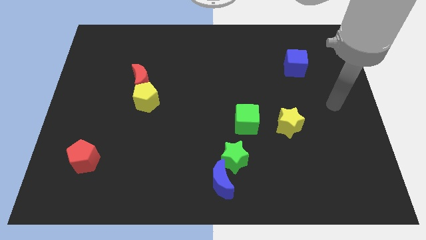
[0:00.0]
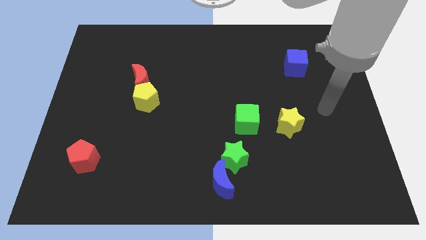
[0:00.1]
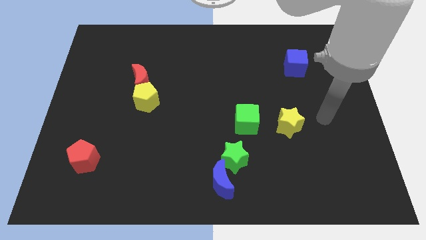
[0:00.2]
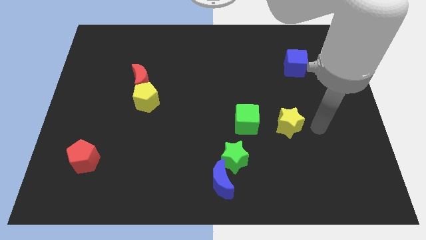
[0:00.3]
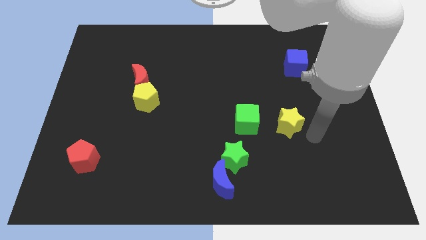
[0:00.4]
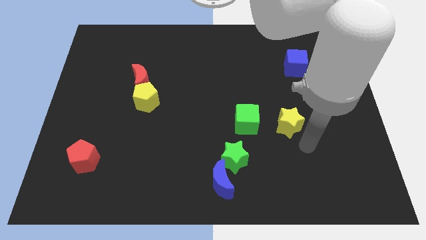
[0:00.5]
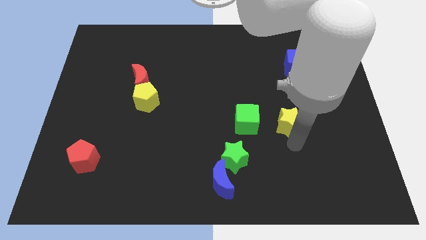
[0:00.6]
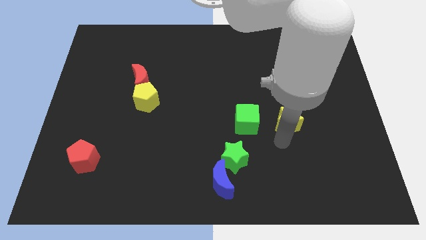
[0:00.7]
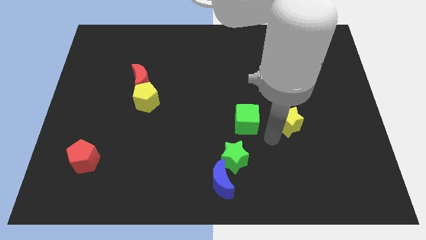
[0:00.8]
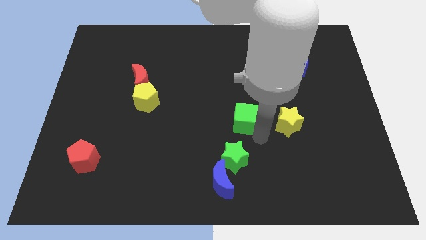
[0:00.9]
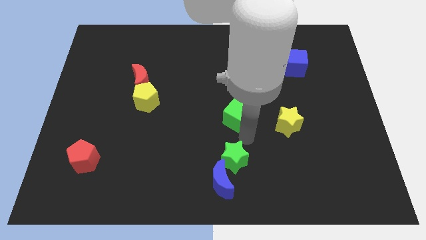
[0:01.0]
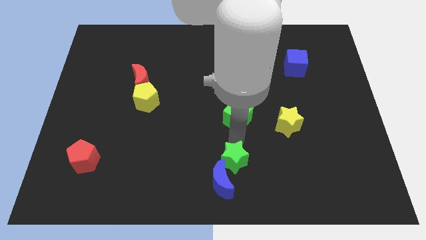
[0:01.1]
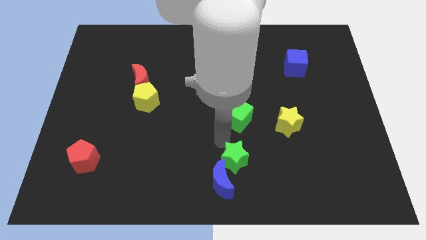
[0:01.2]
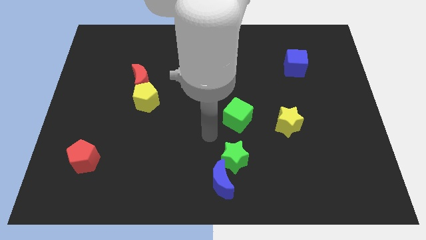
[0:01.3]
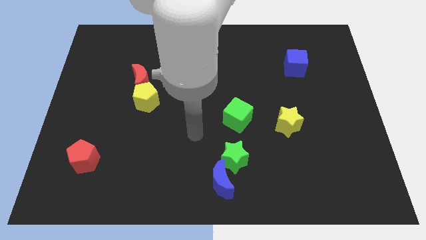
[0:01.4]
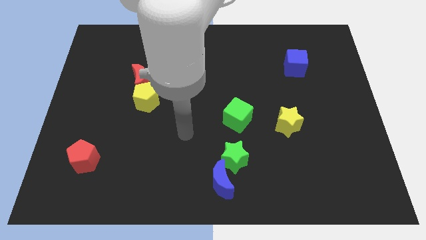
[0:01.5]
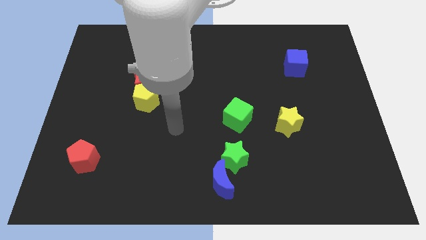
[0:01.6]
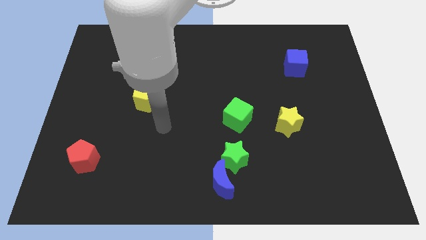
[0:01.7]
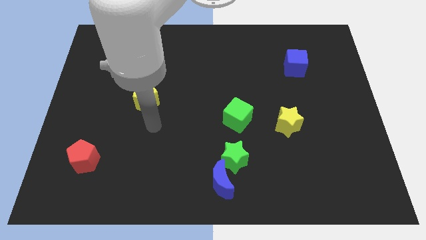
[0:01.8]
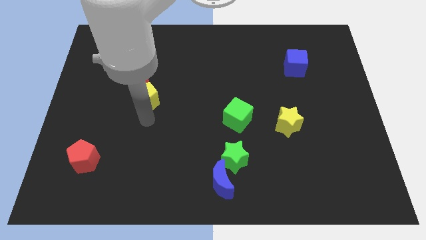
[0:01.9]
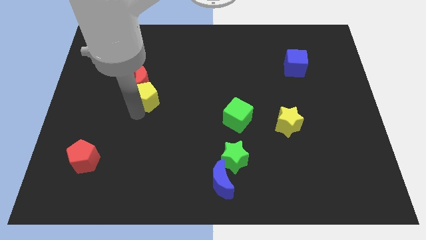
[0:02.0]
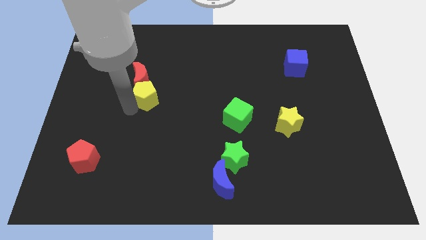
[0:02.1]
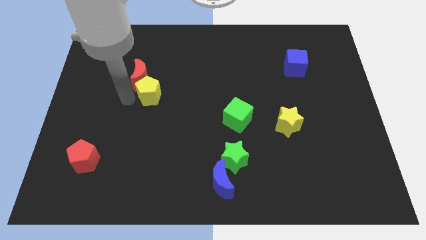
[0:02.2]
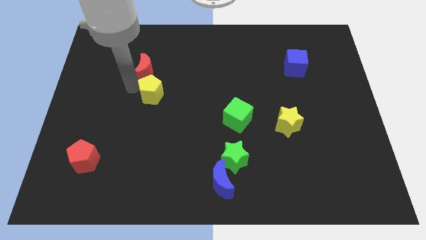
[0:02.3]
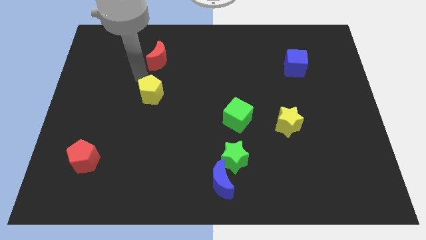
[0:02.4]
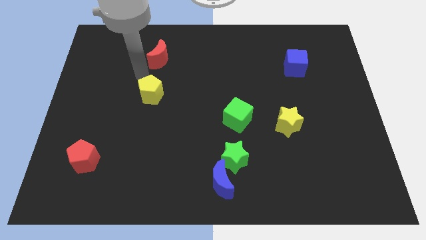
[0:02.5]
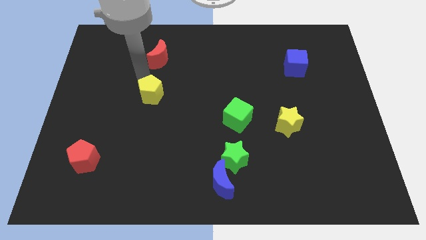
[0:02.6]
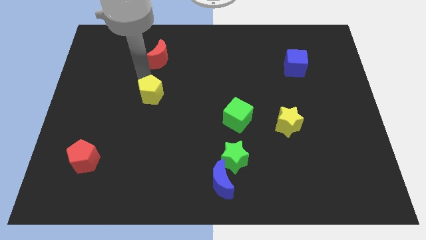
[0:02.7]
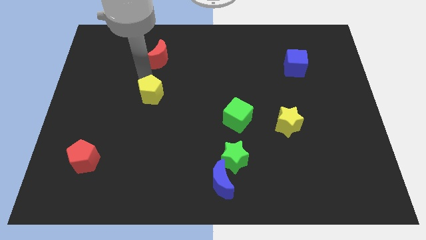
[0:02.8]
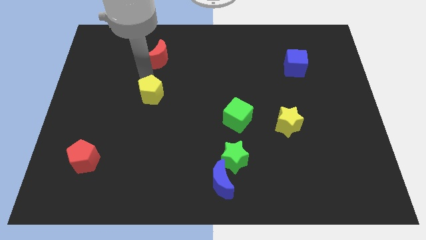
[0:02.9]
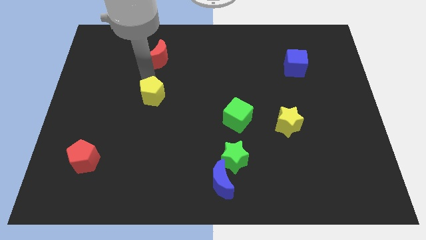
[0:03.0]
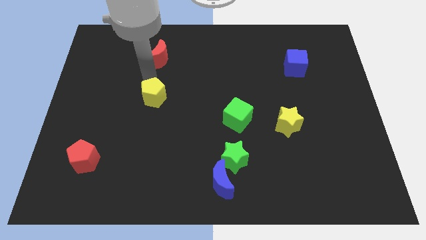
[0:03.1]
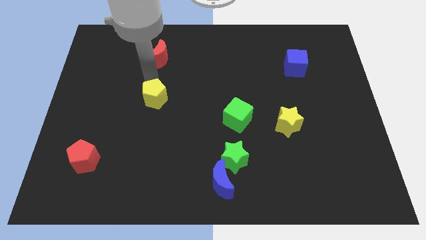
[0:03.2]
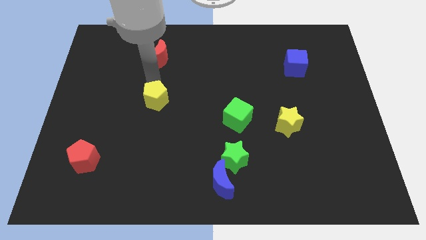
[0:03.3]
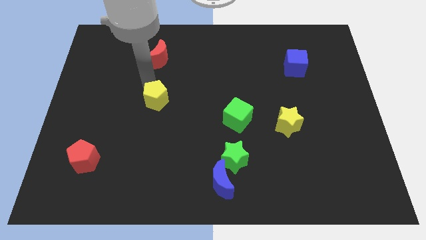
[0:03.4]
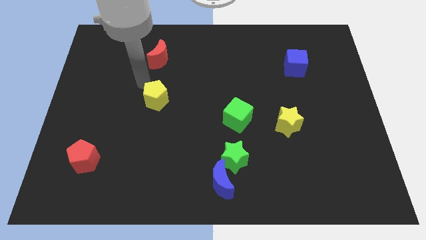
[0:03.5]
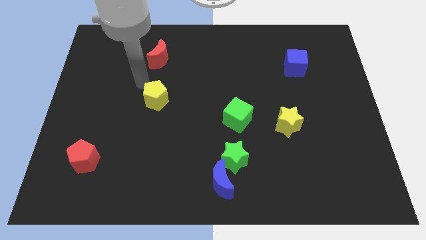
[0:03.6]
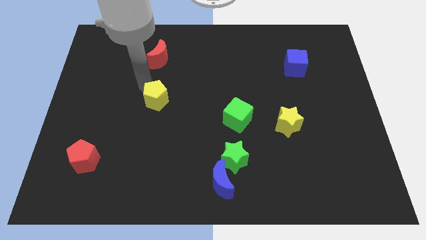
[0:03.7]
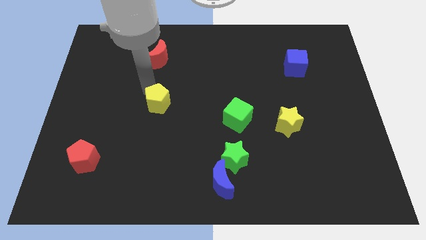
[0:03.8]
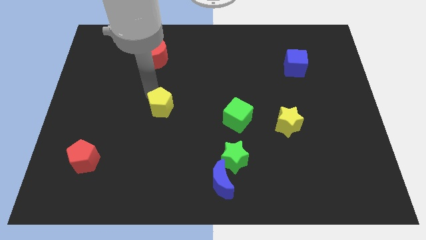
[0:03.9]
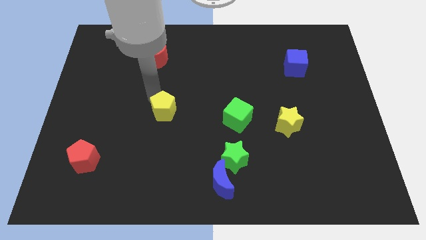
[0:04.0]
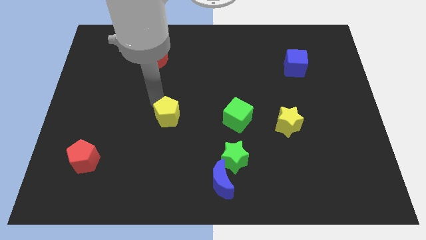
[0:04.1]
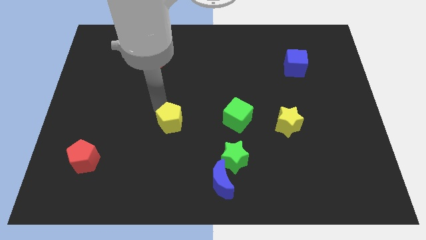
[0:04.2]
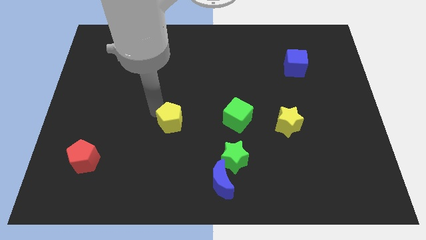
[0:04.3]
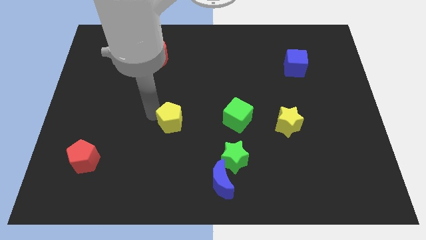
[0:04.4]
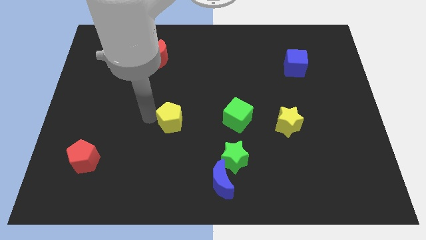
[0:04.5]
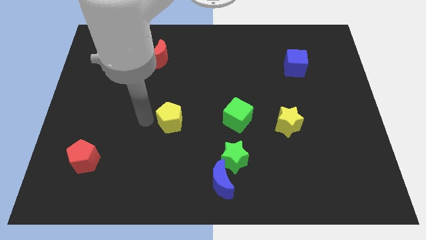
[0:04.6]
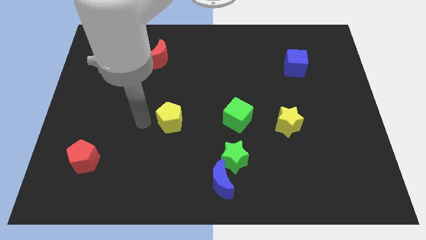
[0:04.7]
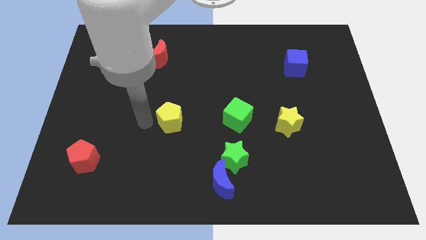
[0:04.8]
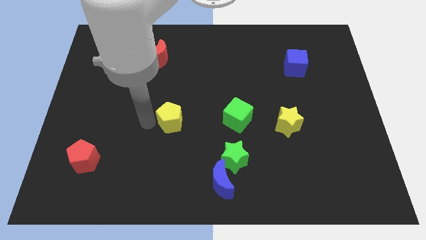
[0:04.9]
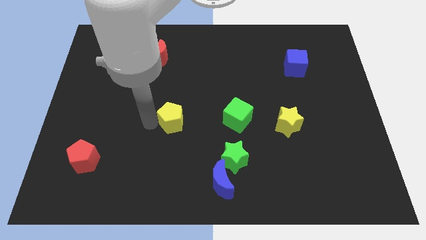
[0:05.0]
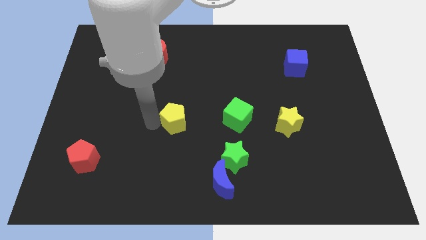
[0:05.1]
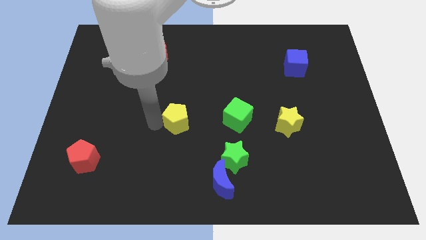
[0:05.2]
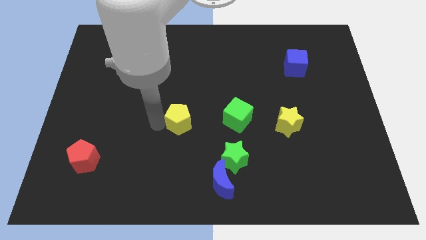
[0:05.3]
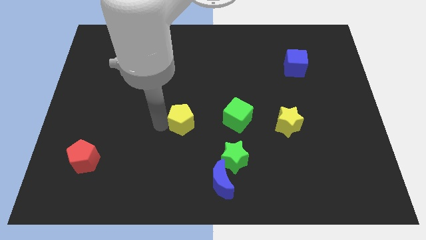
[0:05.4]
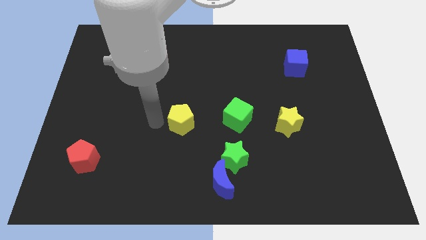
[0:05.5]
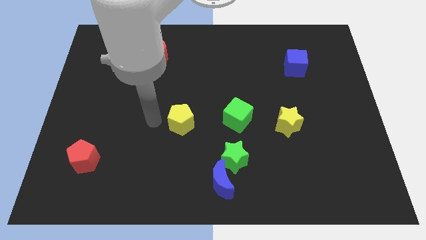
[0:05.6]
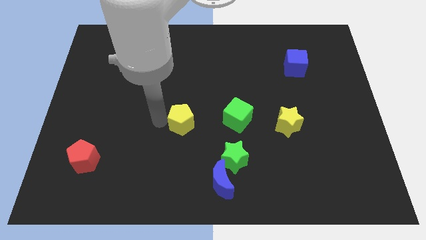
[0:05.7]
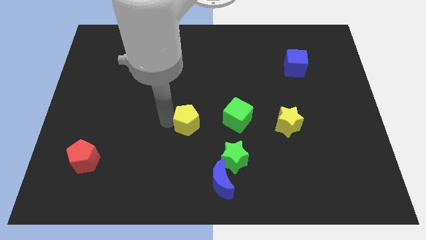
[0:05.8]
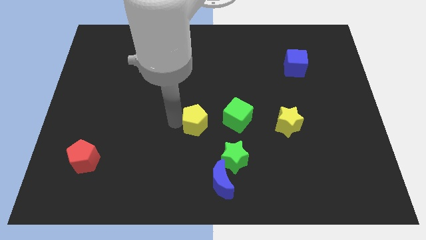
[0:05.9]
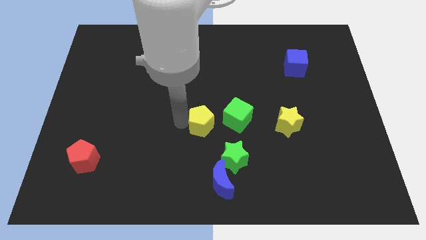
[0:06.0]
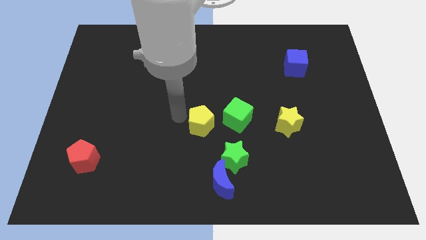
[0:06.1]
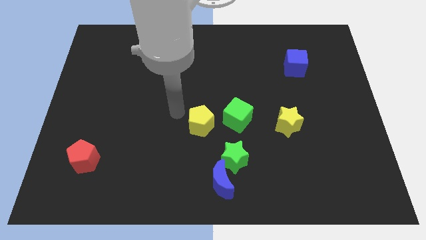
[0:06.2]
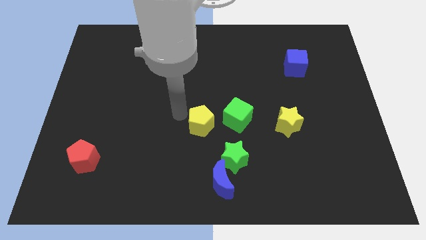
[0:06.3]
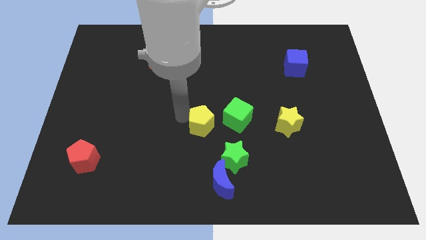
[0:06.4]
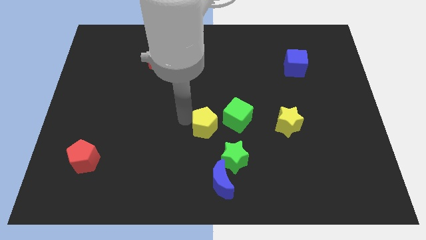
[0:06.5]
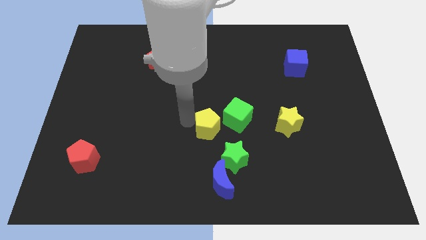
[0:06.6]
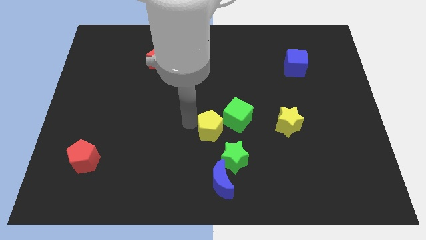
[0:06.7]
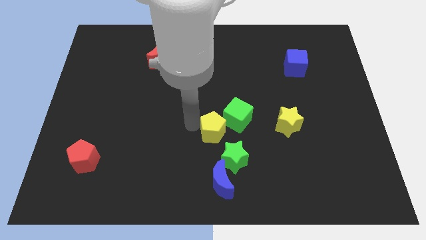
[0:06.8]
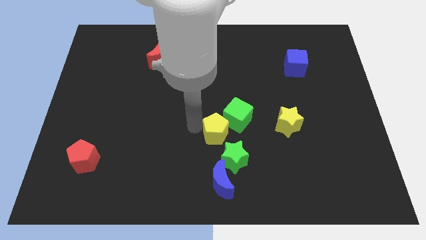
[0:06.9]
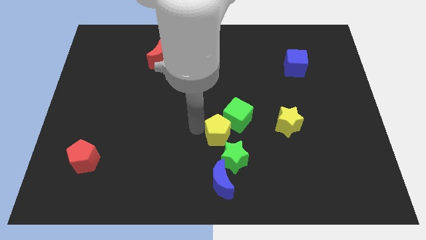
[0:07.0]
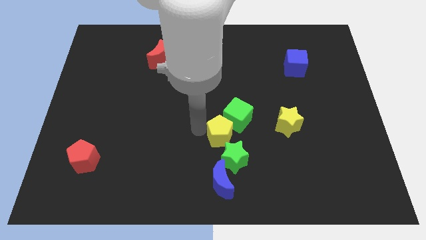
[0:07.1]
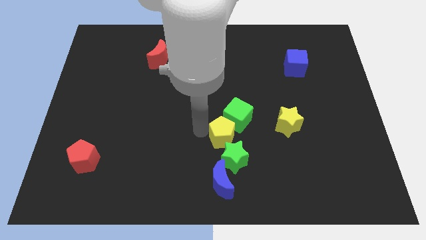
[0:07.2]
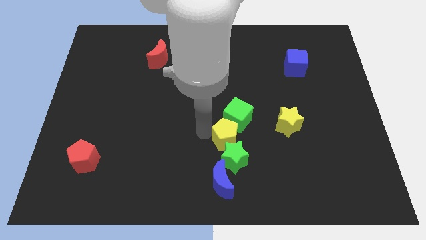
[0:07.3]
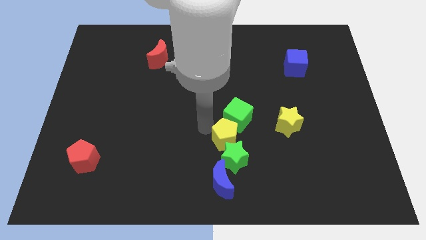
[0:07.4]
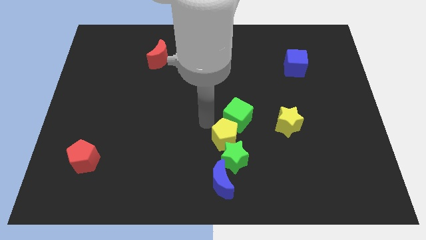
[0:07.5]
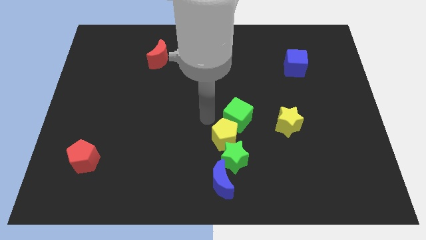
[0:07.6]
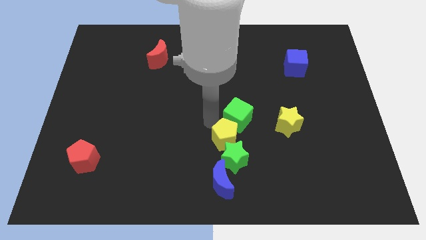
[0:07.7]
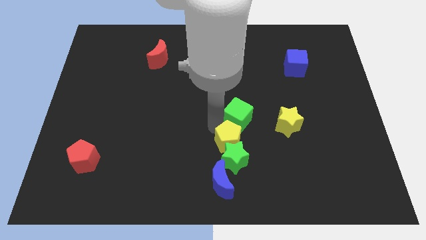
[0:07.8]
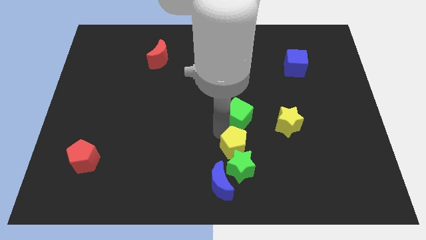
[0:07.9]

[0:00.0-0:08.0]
put the yellow pentagon diagonally up and to the right of the blue moon

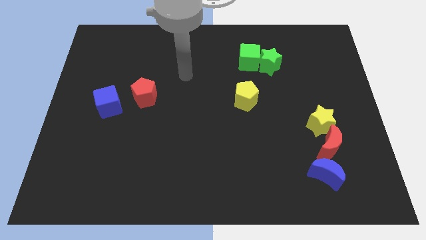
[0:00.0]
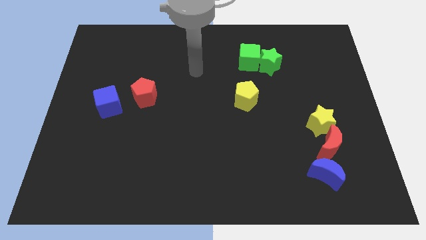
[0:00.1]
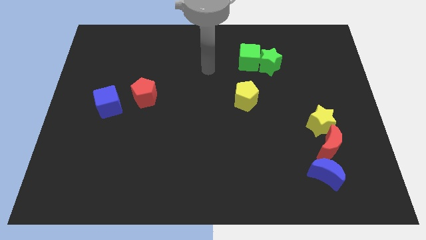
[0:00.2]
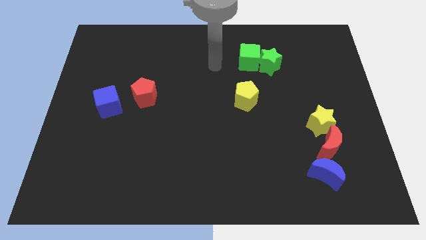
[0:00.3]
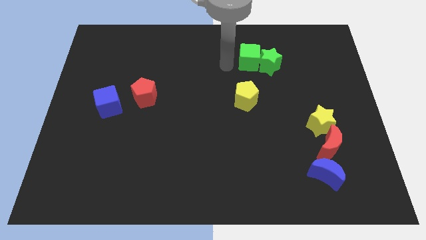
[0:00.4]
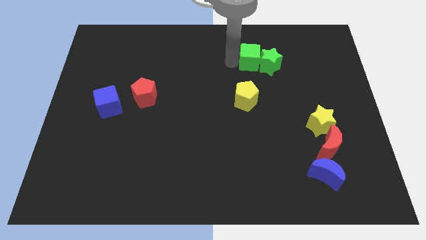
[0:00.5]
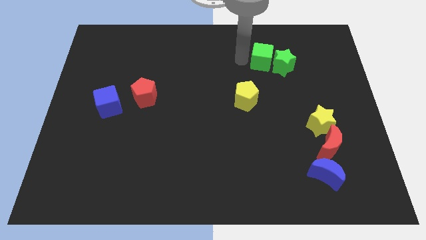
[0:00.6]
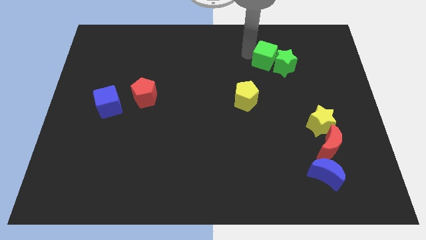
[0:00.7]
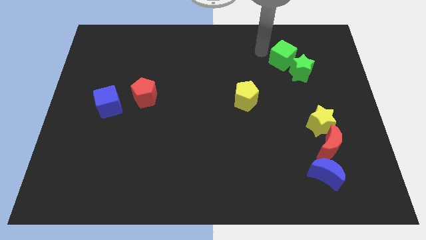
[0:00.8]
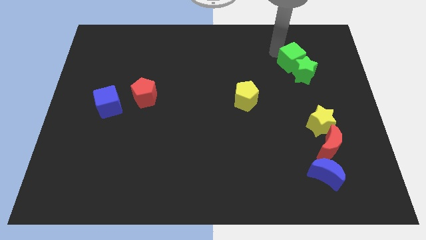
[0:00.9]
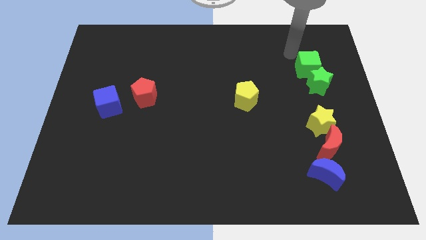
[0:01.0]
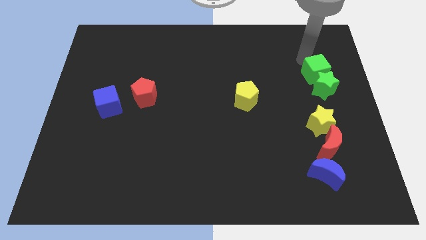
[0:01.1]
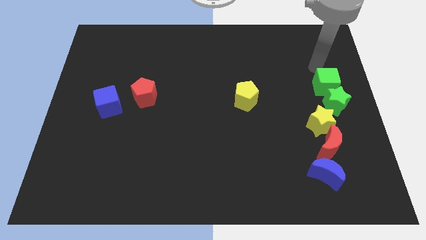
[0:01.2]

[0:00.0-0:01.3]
put the green star above the red moon
